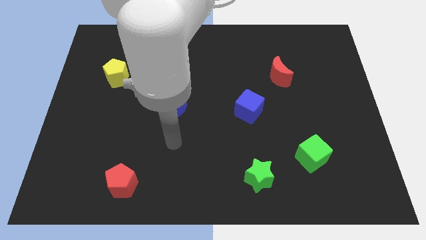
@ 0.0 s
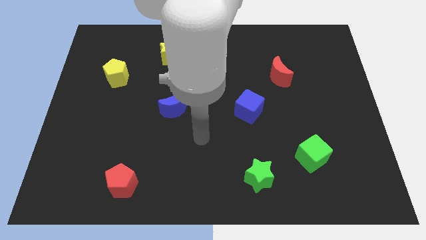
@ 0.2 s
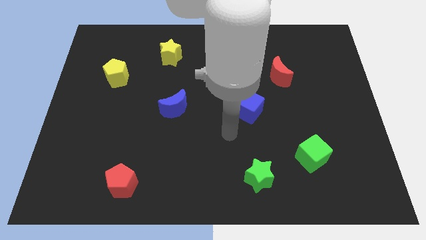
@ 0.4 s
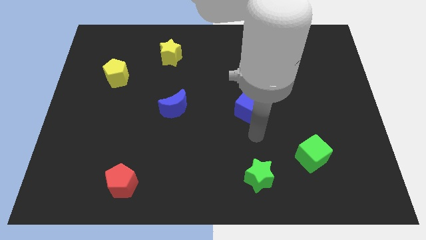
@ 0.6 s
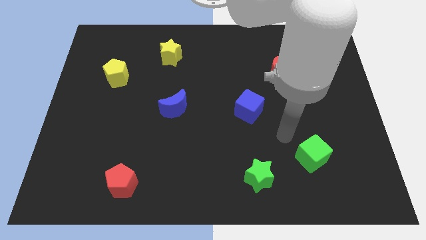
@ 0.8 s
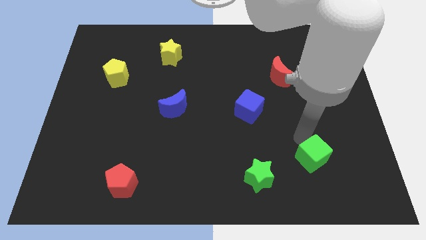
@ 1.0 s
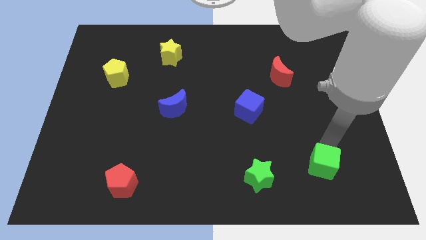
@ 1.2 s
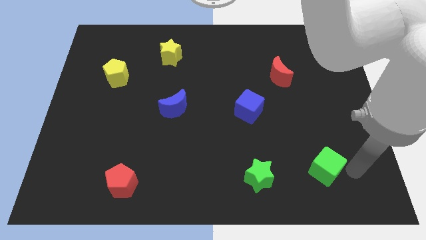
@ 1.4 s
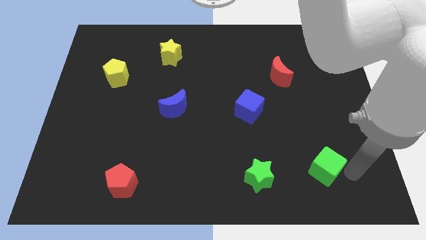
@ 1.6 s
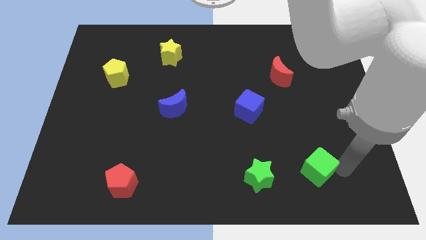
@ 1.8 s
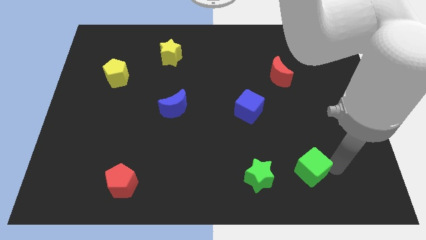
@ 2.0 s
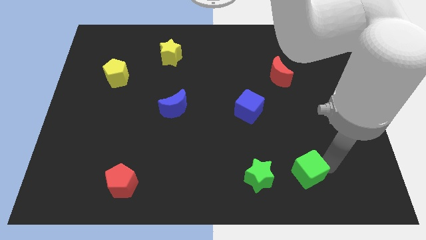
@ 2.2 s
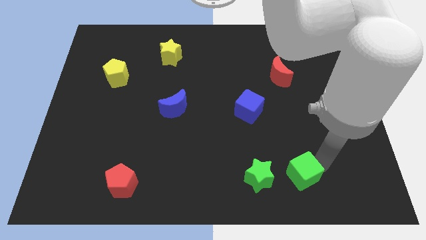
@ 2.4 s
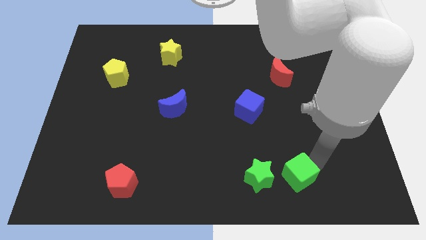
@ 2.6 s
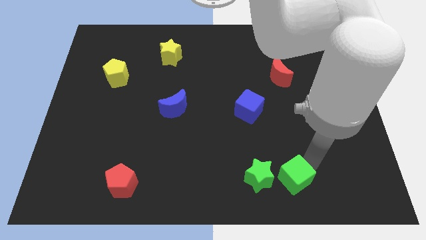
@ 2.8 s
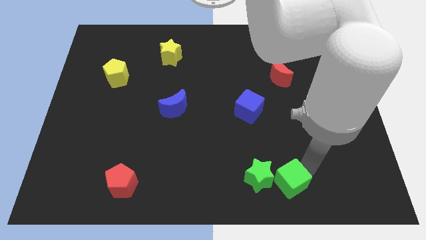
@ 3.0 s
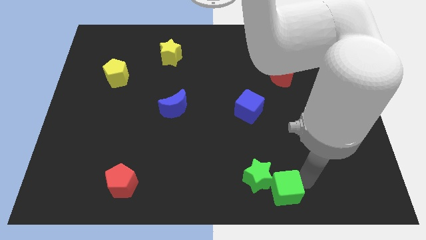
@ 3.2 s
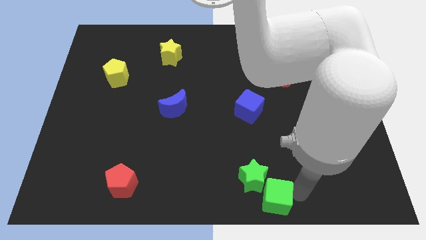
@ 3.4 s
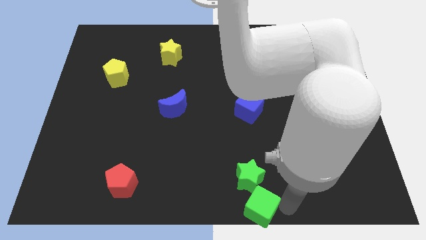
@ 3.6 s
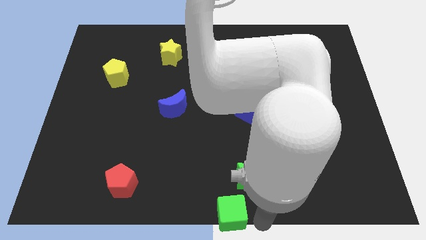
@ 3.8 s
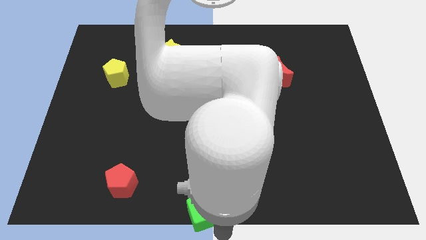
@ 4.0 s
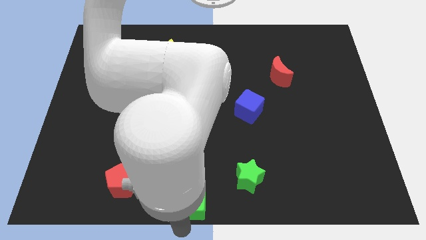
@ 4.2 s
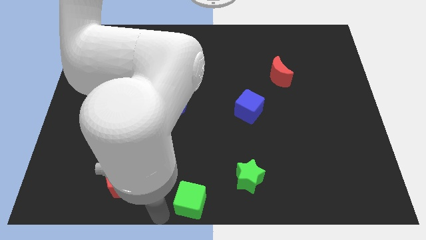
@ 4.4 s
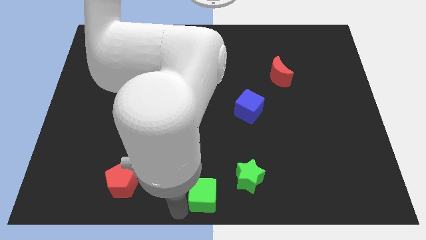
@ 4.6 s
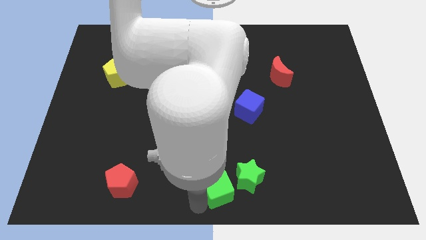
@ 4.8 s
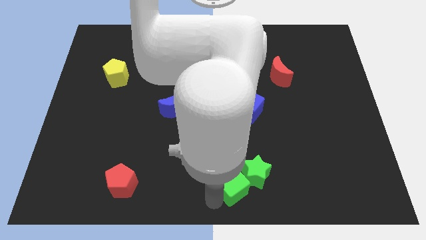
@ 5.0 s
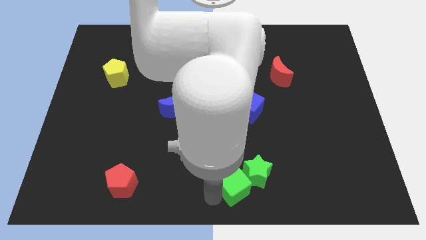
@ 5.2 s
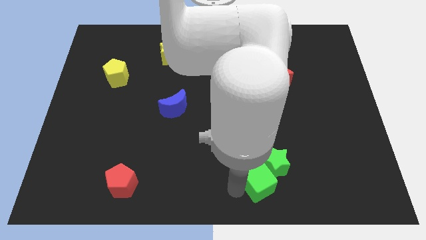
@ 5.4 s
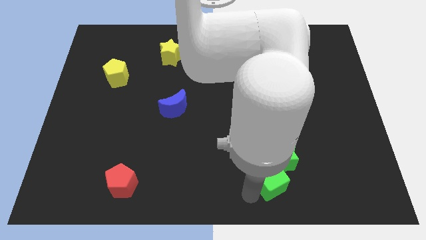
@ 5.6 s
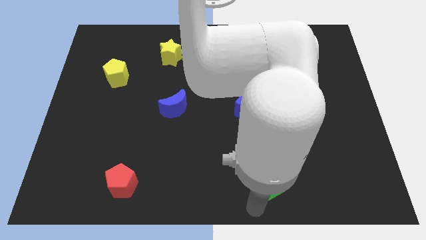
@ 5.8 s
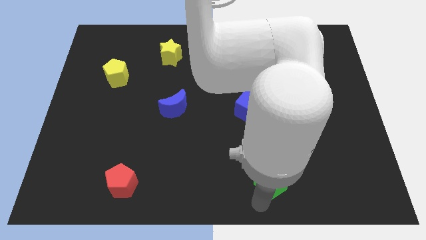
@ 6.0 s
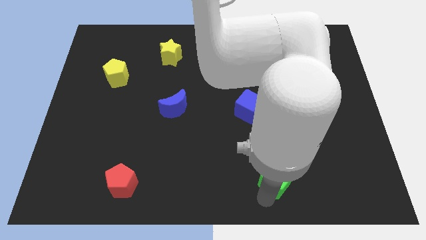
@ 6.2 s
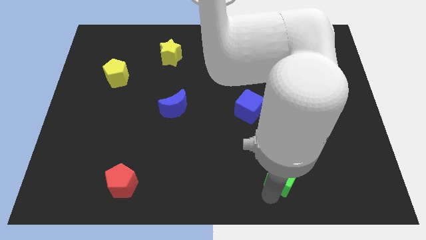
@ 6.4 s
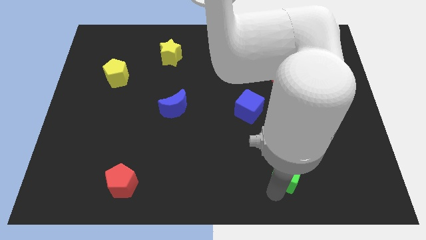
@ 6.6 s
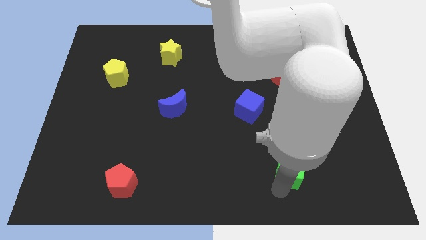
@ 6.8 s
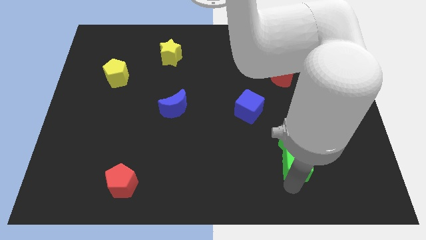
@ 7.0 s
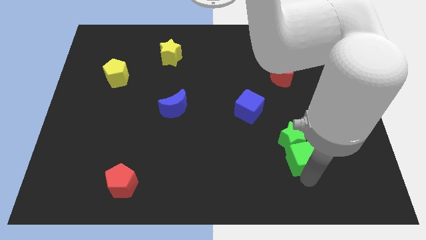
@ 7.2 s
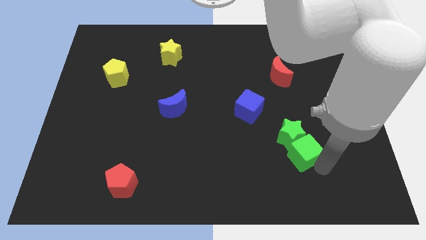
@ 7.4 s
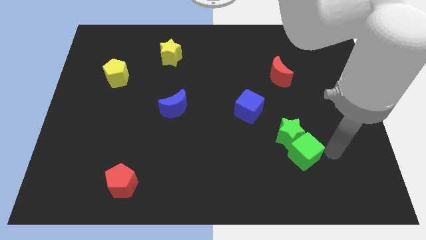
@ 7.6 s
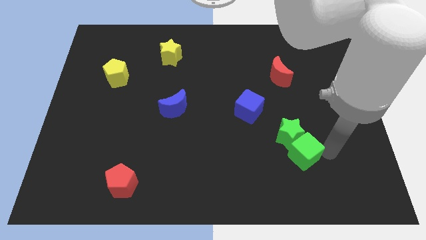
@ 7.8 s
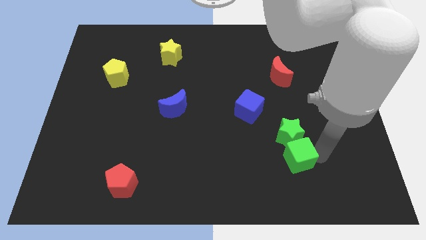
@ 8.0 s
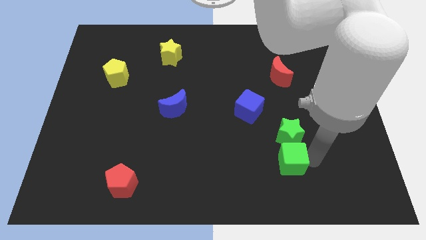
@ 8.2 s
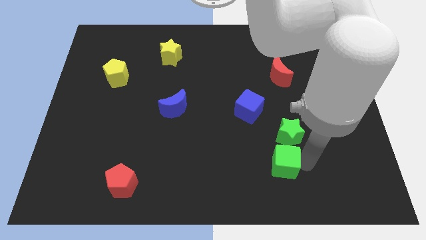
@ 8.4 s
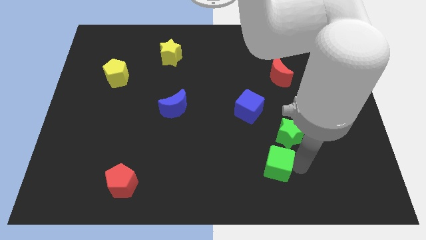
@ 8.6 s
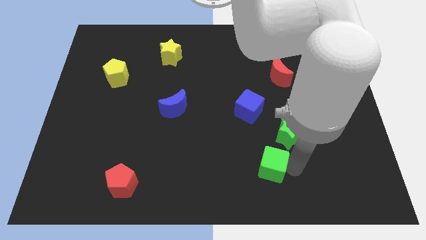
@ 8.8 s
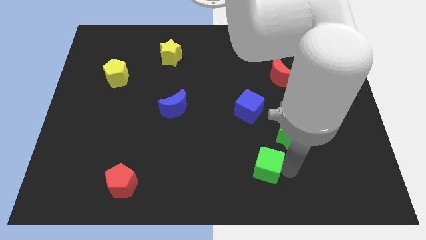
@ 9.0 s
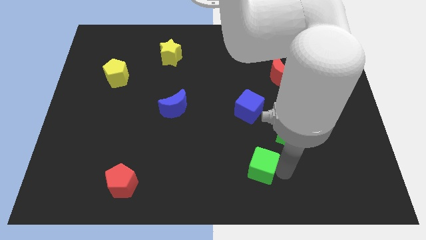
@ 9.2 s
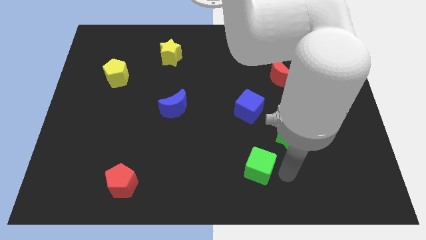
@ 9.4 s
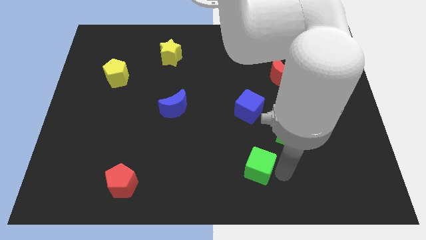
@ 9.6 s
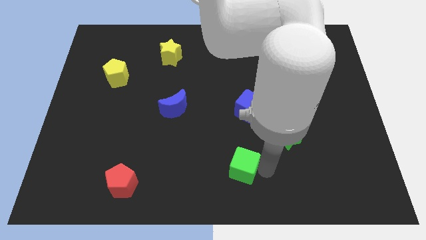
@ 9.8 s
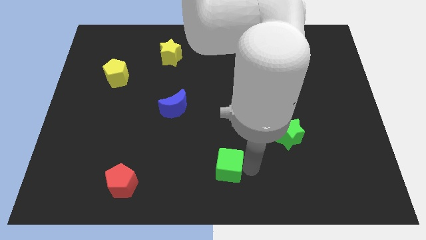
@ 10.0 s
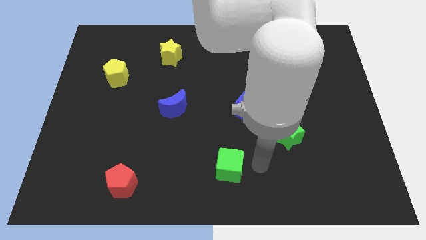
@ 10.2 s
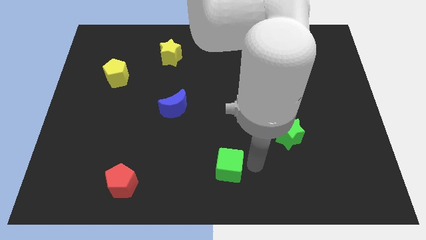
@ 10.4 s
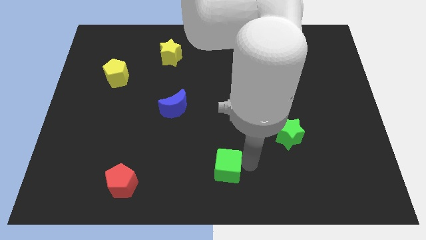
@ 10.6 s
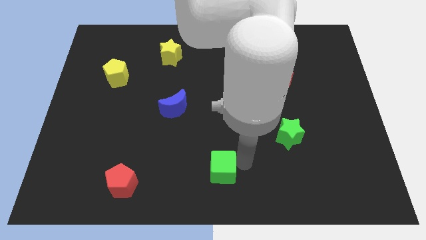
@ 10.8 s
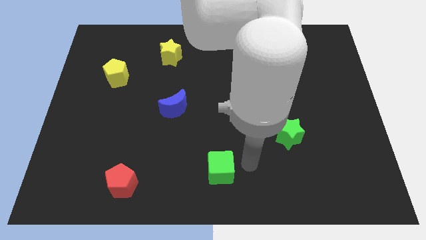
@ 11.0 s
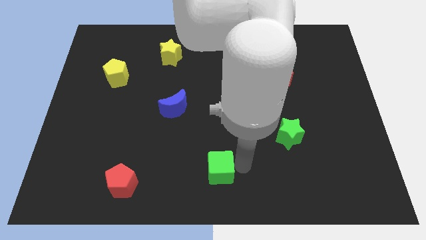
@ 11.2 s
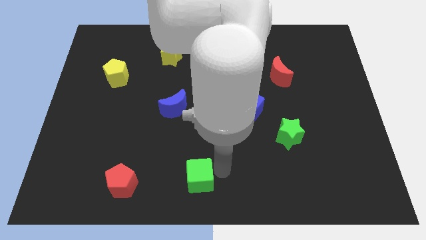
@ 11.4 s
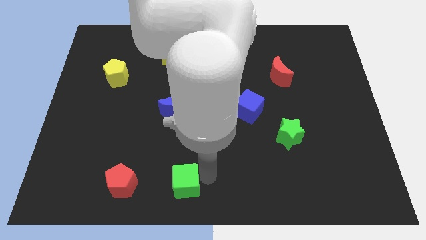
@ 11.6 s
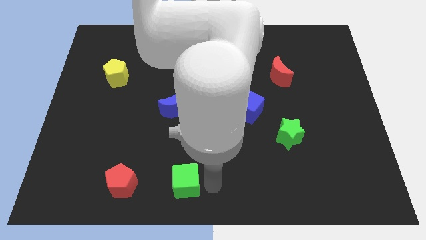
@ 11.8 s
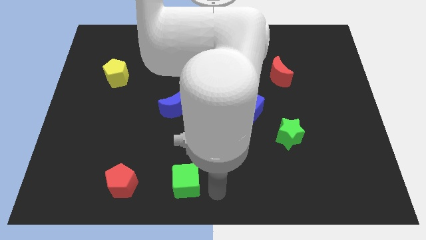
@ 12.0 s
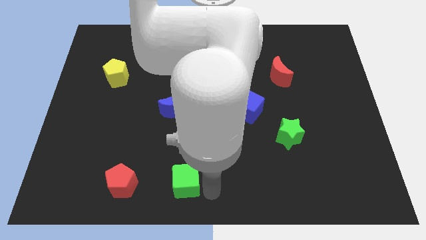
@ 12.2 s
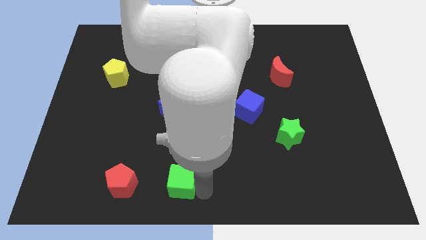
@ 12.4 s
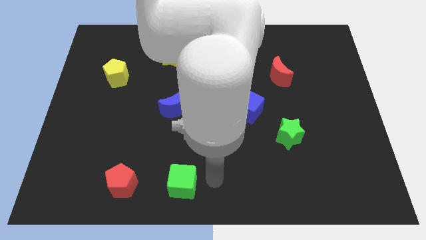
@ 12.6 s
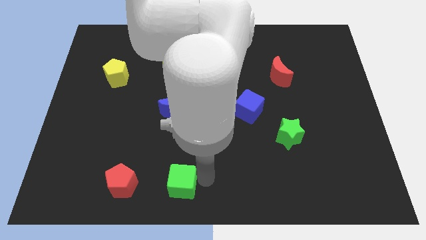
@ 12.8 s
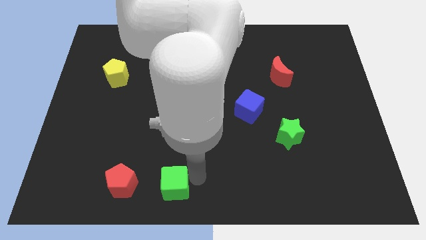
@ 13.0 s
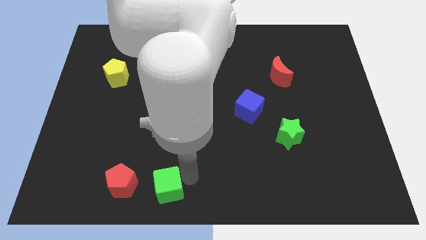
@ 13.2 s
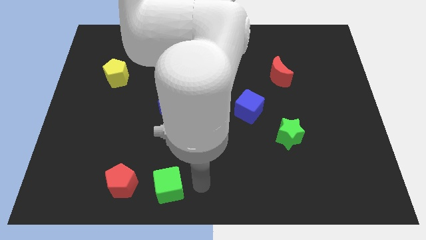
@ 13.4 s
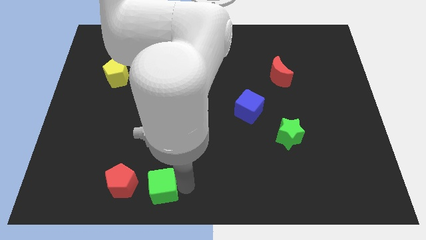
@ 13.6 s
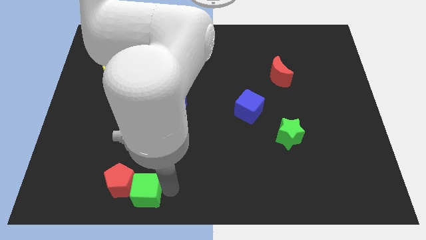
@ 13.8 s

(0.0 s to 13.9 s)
push the green cube to the red pentagon

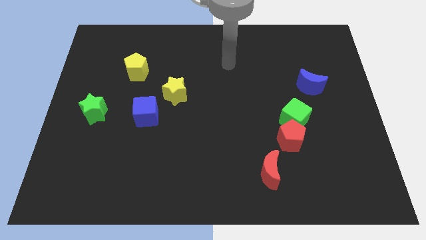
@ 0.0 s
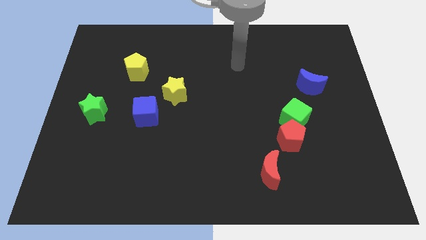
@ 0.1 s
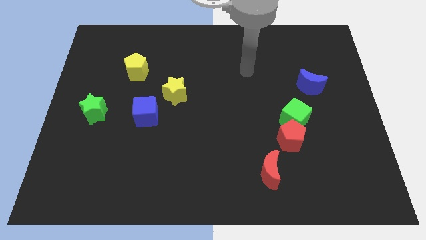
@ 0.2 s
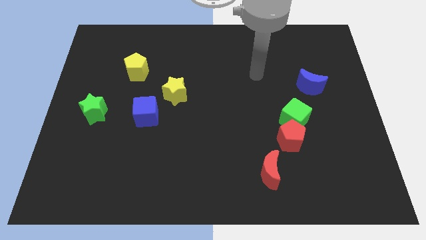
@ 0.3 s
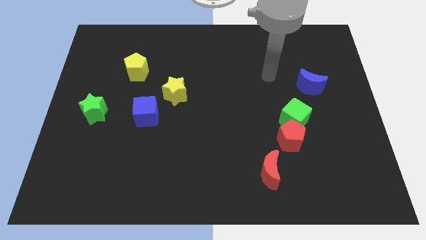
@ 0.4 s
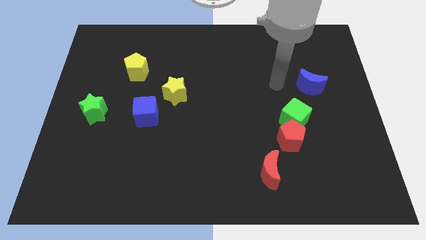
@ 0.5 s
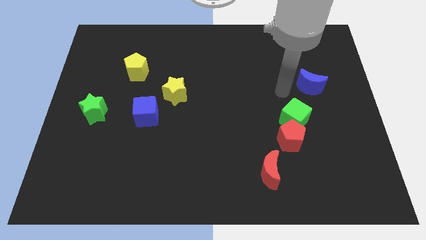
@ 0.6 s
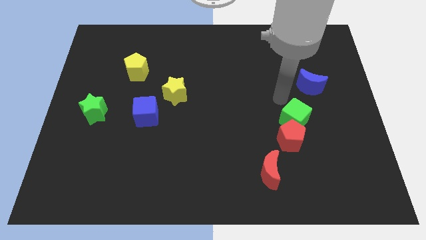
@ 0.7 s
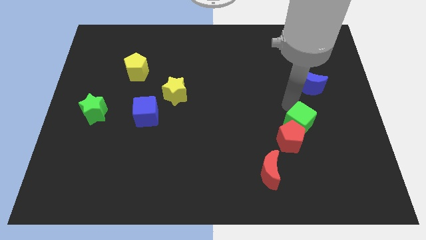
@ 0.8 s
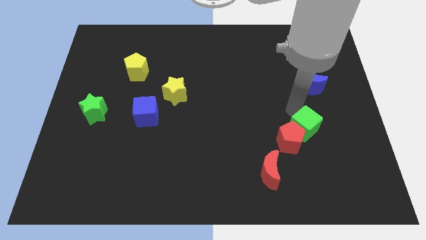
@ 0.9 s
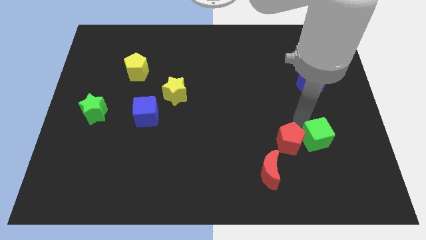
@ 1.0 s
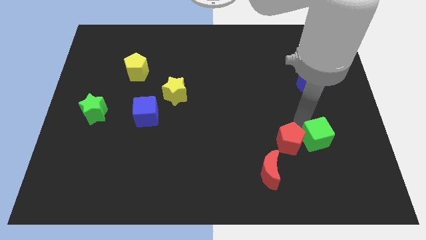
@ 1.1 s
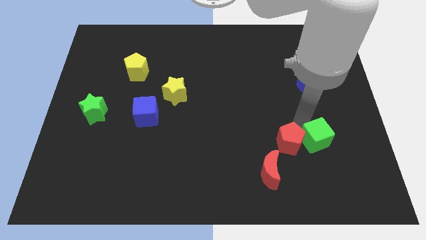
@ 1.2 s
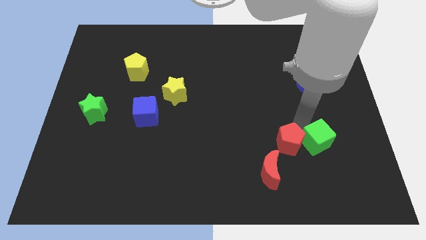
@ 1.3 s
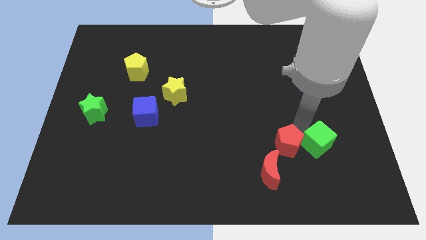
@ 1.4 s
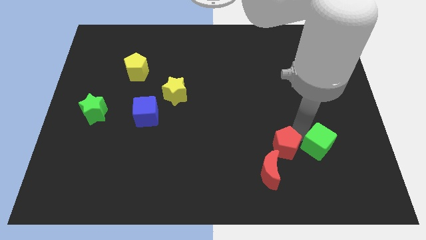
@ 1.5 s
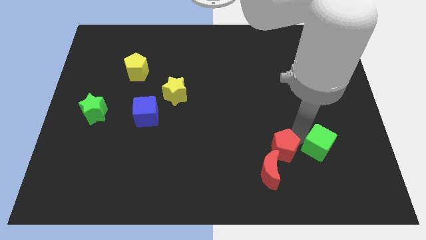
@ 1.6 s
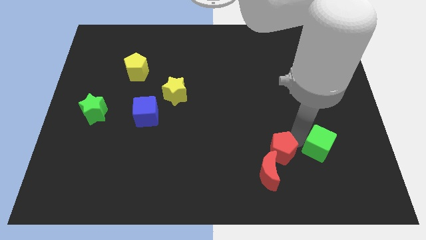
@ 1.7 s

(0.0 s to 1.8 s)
put the red pentagon to the red moon
